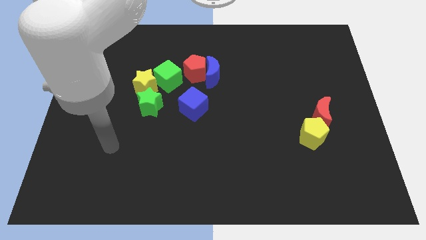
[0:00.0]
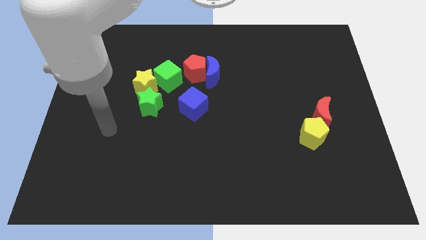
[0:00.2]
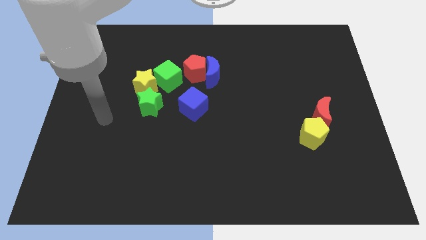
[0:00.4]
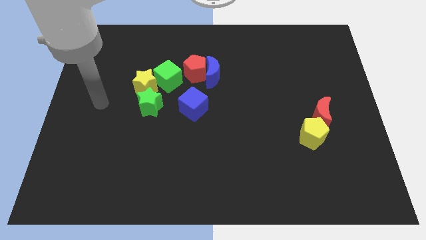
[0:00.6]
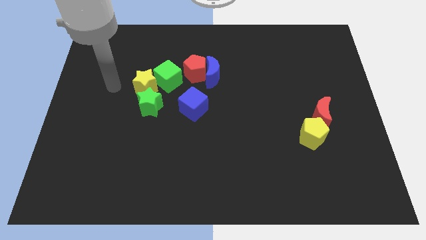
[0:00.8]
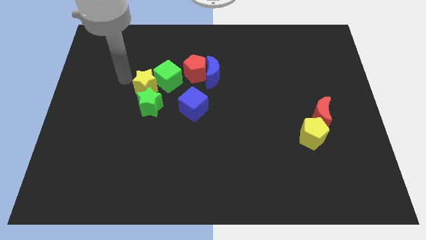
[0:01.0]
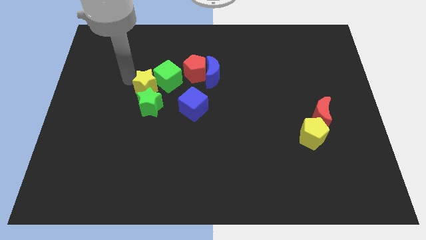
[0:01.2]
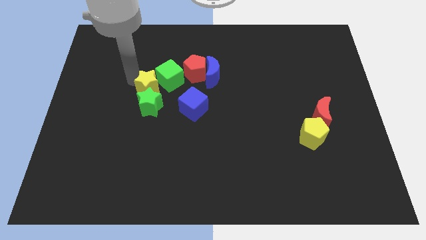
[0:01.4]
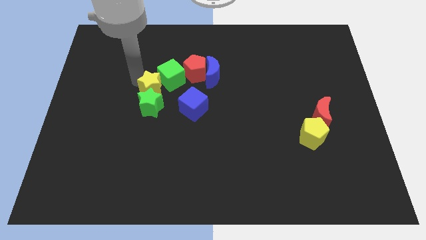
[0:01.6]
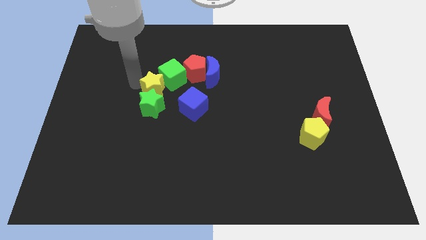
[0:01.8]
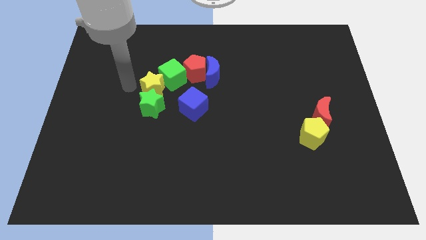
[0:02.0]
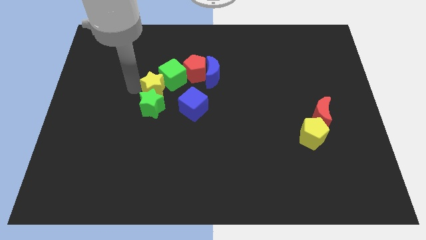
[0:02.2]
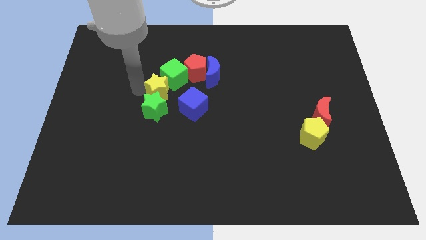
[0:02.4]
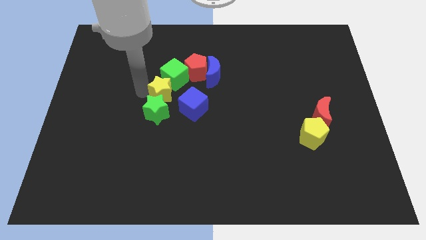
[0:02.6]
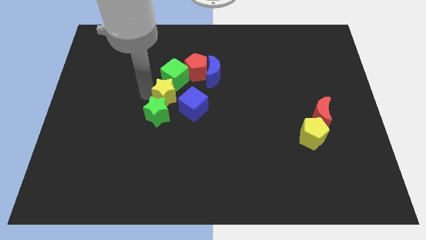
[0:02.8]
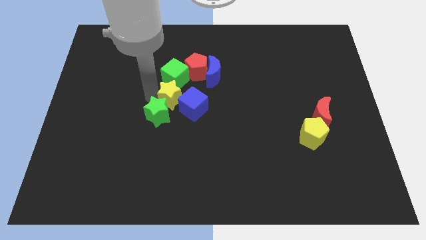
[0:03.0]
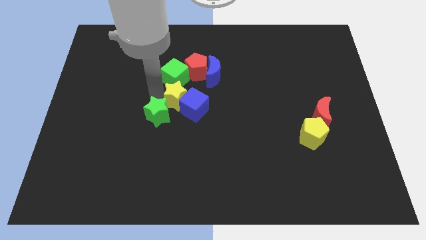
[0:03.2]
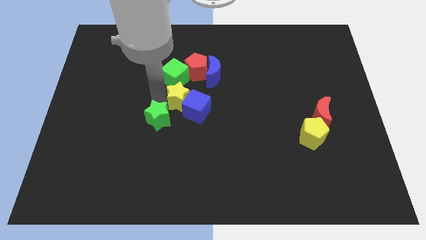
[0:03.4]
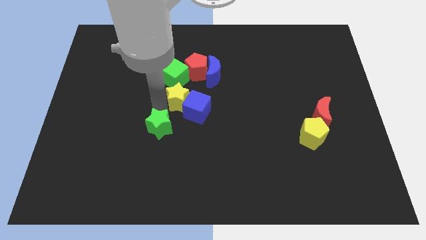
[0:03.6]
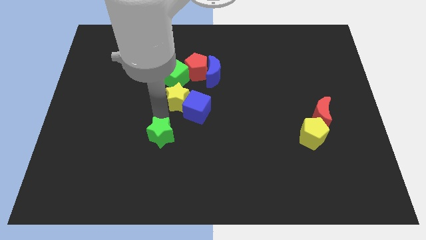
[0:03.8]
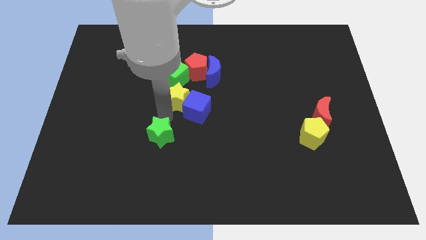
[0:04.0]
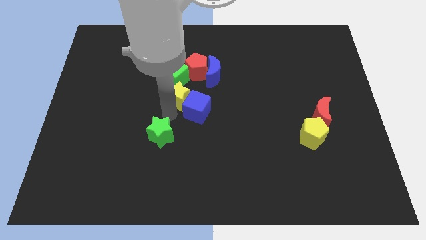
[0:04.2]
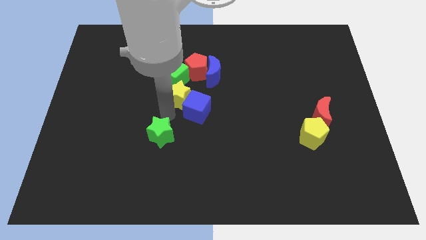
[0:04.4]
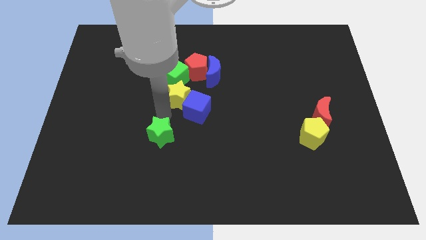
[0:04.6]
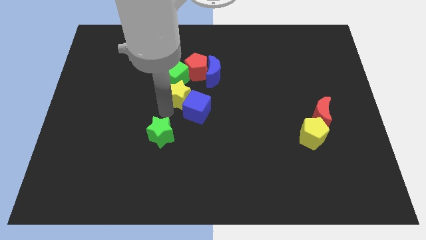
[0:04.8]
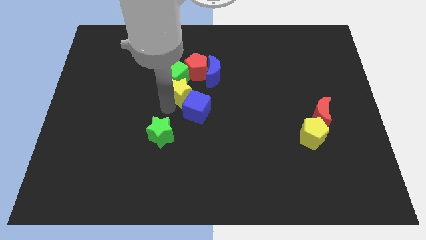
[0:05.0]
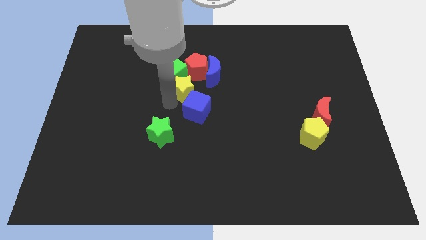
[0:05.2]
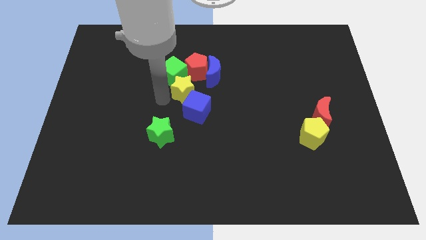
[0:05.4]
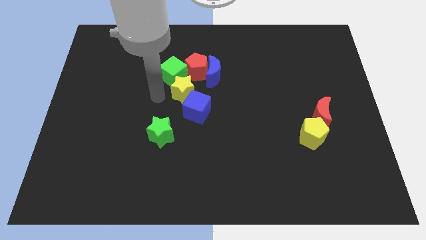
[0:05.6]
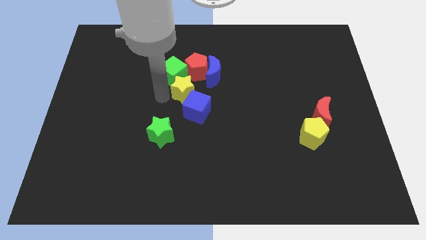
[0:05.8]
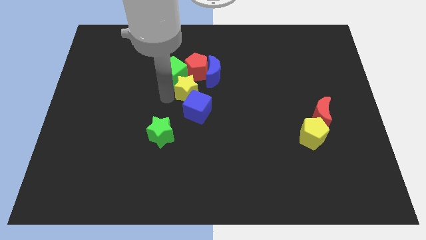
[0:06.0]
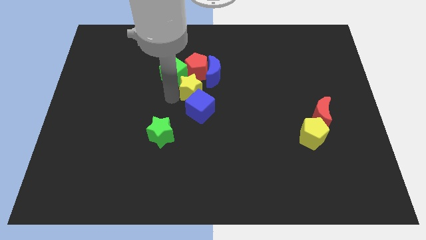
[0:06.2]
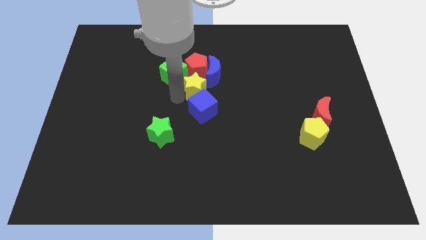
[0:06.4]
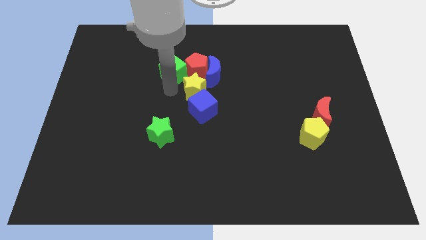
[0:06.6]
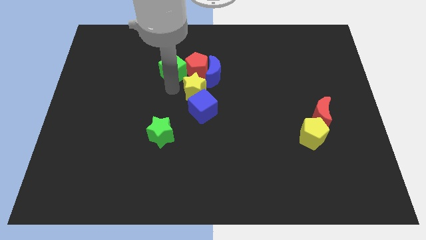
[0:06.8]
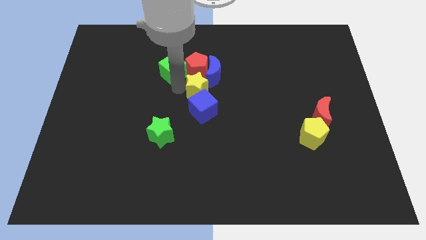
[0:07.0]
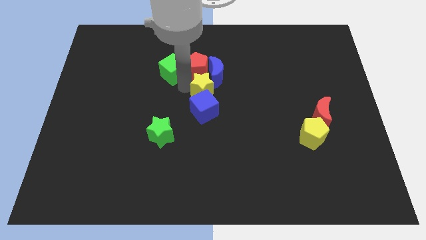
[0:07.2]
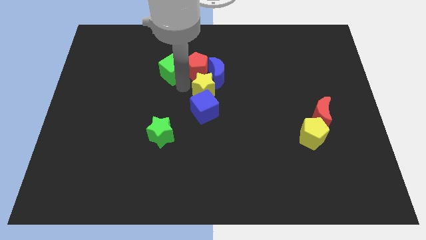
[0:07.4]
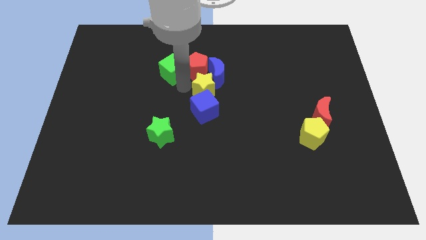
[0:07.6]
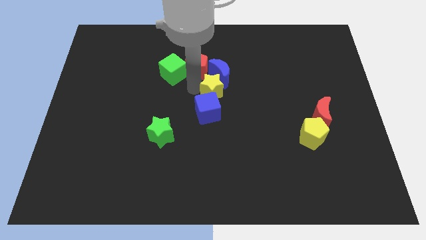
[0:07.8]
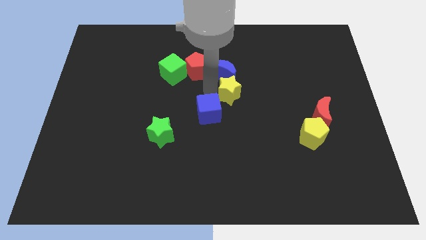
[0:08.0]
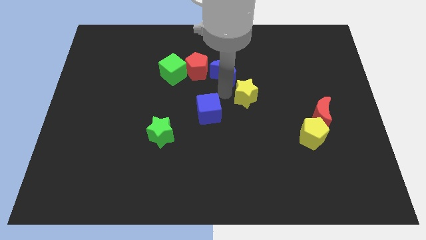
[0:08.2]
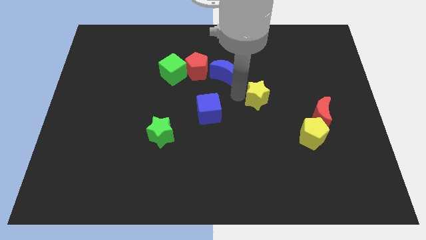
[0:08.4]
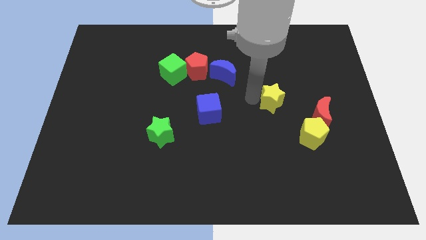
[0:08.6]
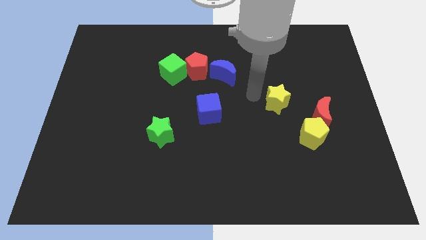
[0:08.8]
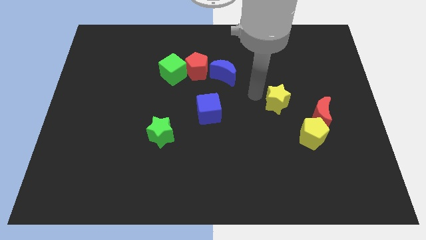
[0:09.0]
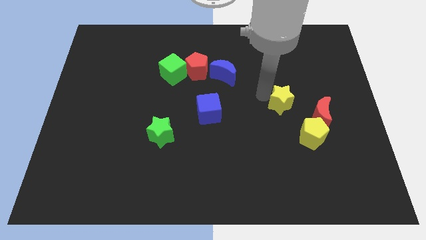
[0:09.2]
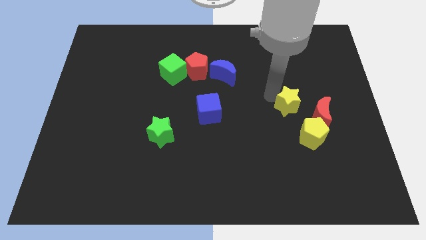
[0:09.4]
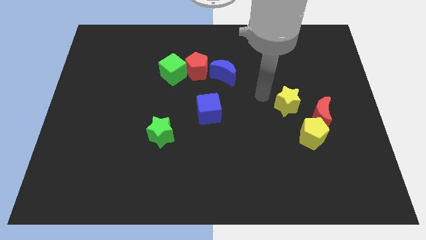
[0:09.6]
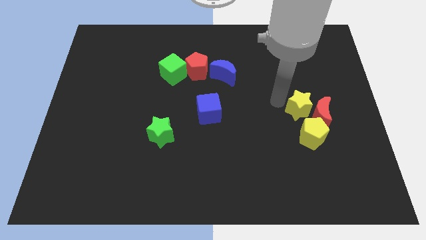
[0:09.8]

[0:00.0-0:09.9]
move the yellow star close to the red moon

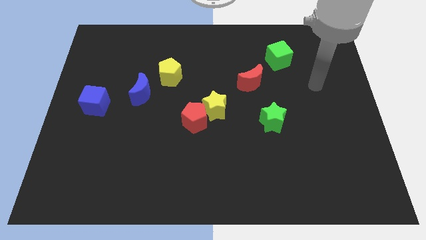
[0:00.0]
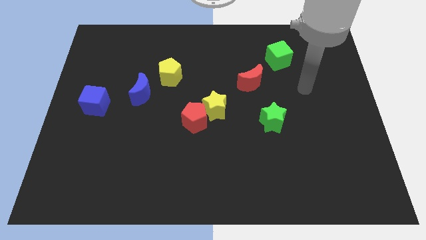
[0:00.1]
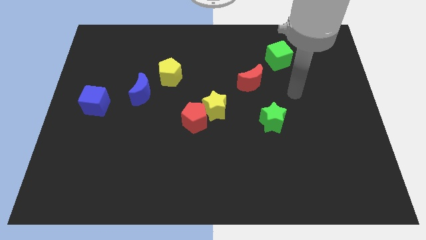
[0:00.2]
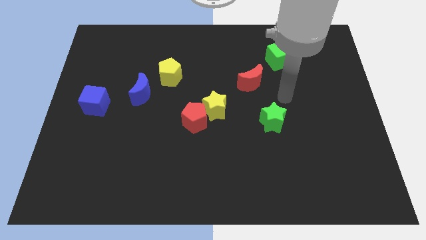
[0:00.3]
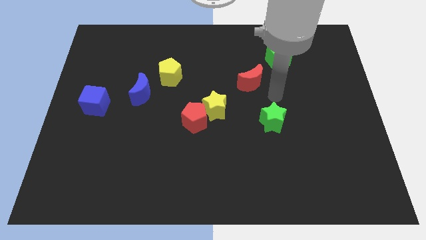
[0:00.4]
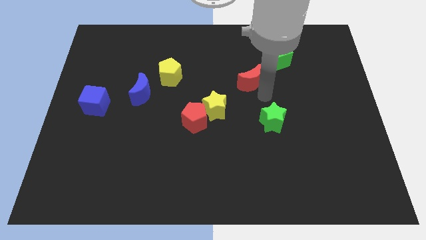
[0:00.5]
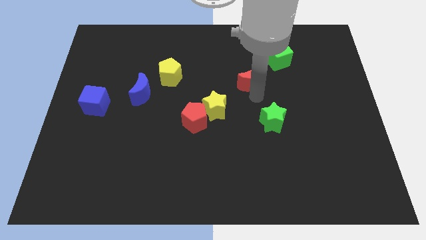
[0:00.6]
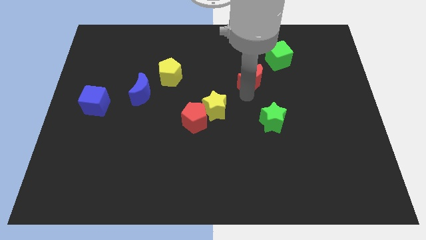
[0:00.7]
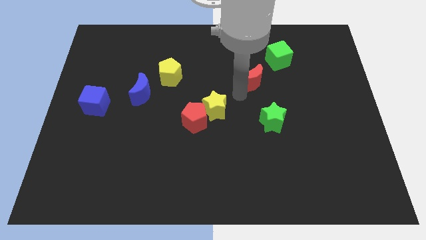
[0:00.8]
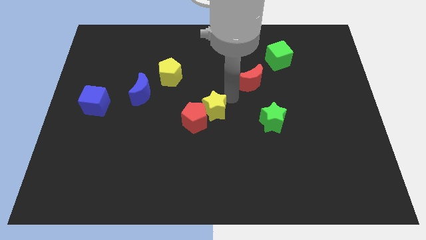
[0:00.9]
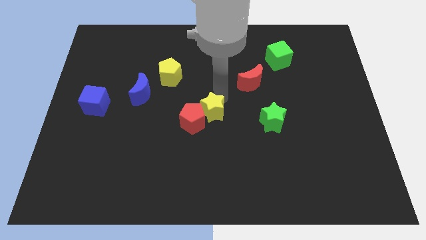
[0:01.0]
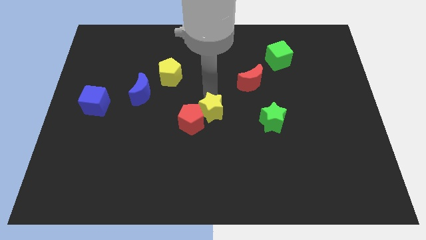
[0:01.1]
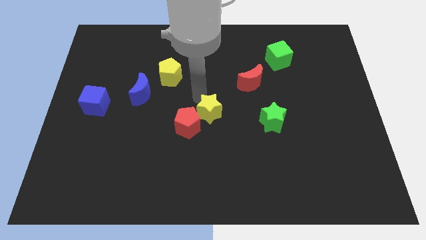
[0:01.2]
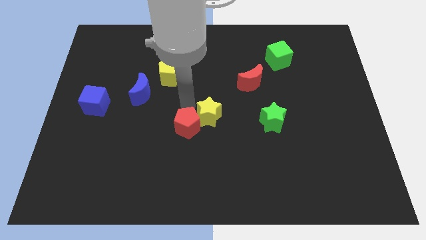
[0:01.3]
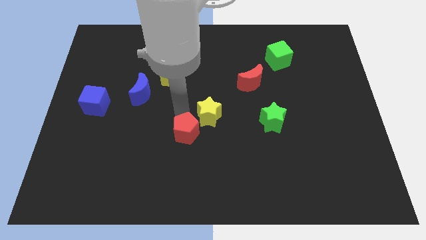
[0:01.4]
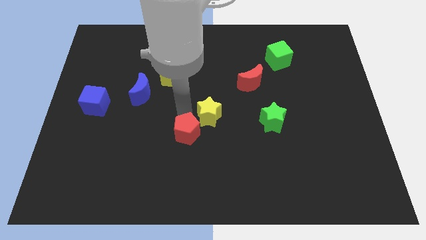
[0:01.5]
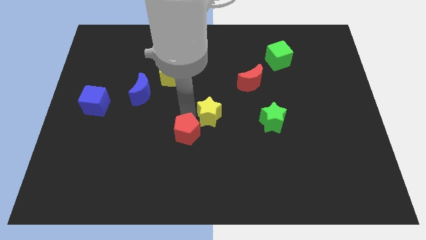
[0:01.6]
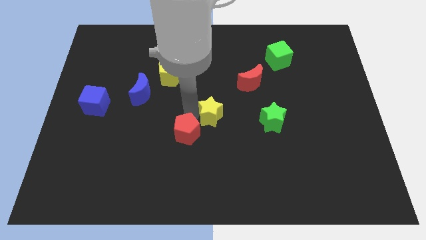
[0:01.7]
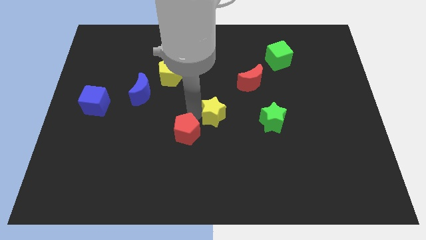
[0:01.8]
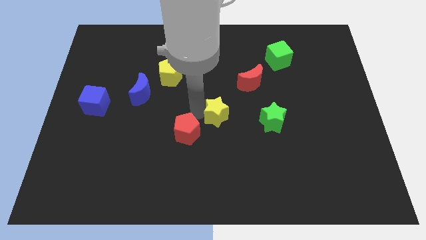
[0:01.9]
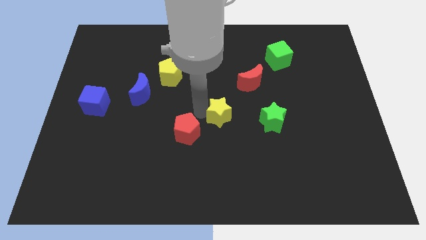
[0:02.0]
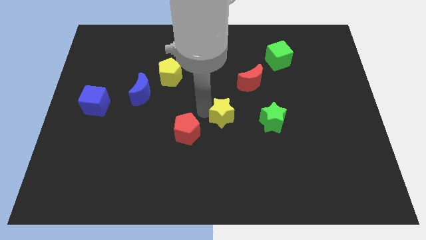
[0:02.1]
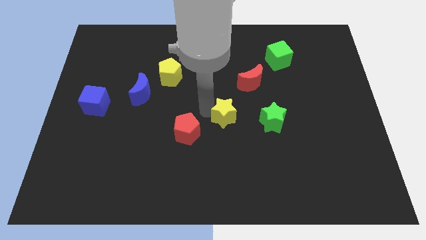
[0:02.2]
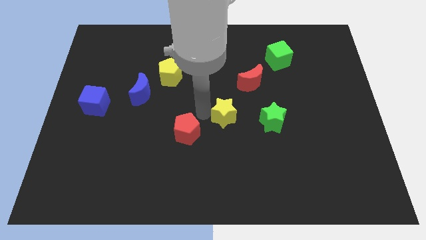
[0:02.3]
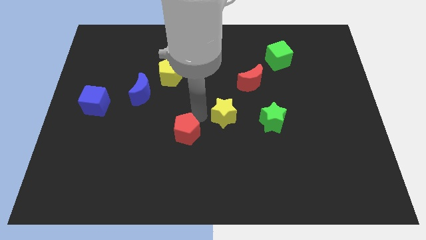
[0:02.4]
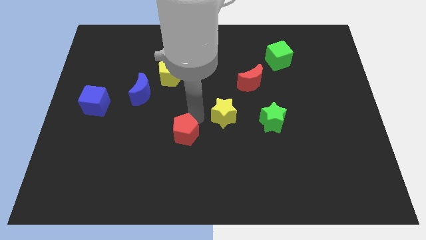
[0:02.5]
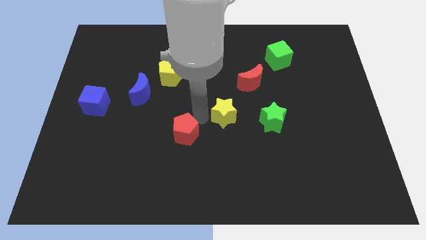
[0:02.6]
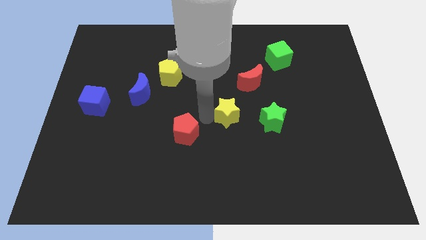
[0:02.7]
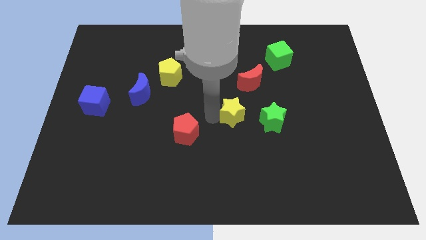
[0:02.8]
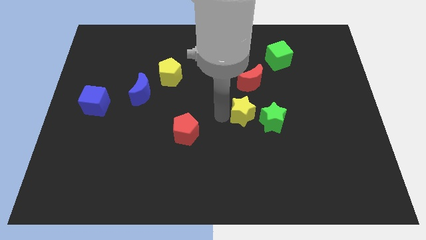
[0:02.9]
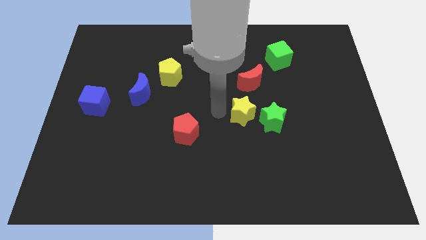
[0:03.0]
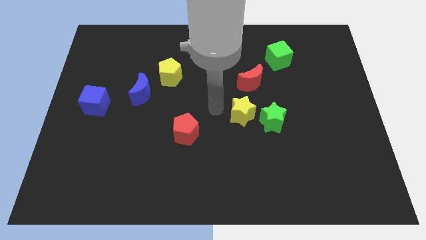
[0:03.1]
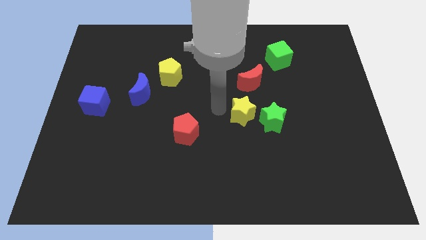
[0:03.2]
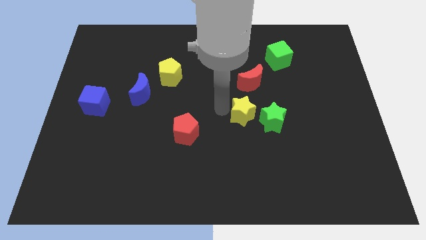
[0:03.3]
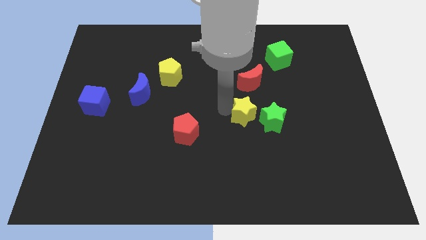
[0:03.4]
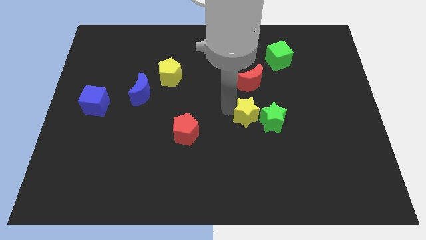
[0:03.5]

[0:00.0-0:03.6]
move the yellow star close to the green star
